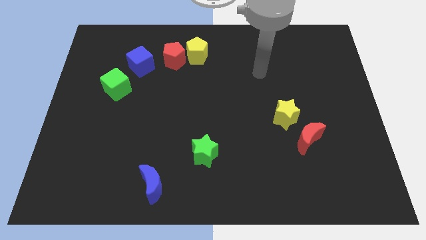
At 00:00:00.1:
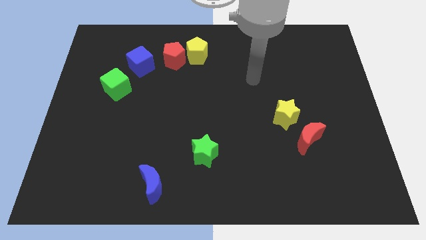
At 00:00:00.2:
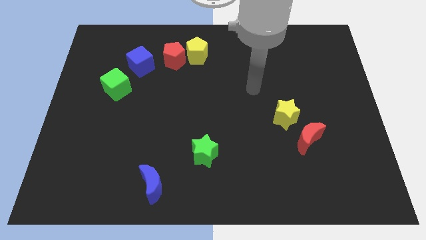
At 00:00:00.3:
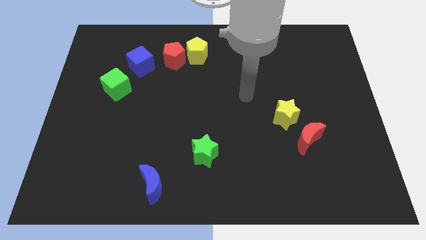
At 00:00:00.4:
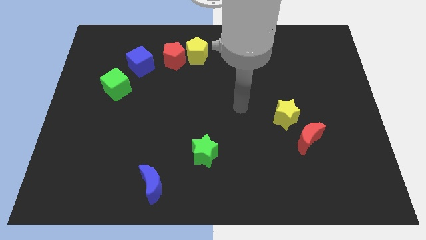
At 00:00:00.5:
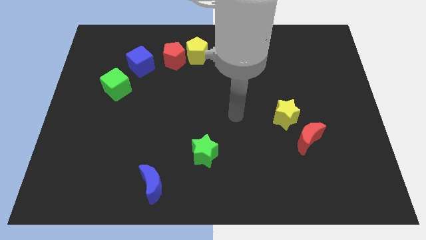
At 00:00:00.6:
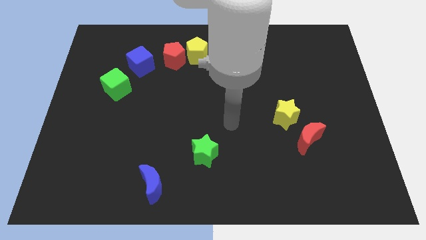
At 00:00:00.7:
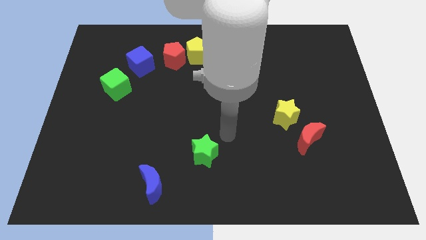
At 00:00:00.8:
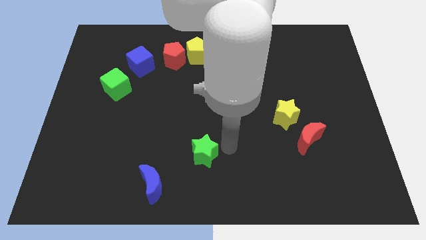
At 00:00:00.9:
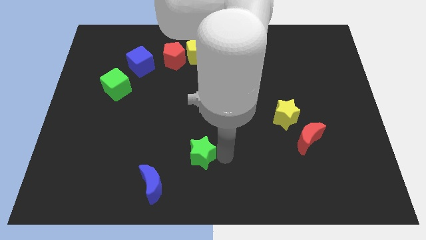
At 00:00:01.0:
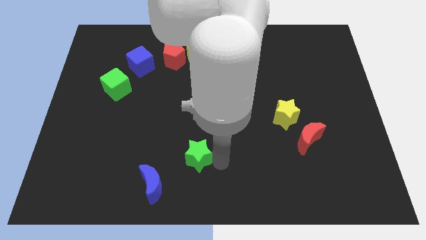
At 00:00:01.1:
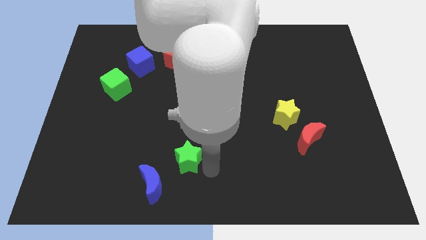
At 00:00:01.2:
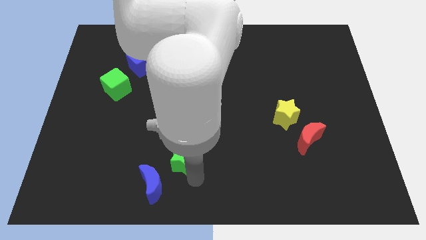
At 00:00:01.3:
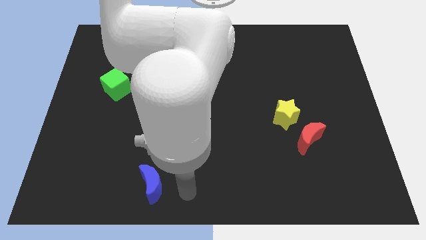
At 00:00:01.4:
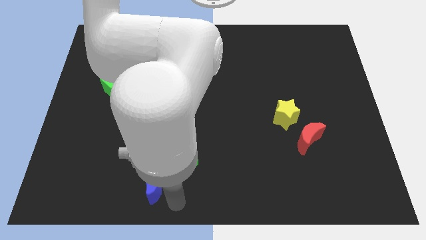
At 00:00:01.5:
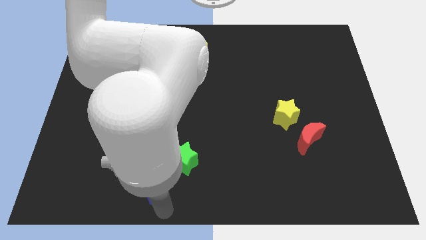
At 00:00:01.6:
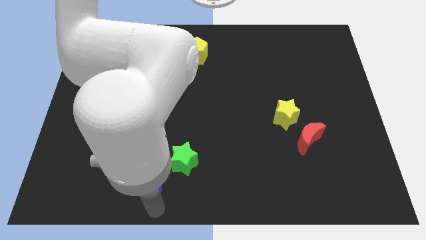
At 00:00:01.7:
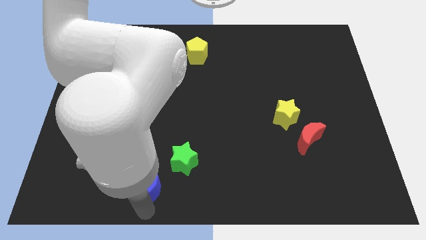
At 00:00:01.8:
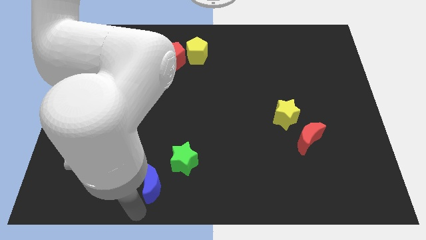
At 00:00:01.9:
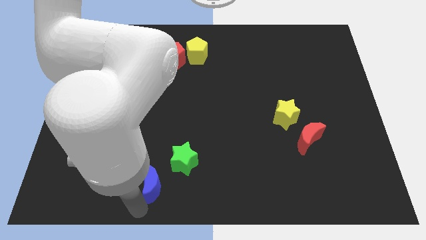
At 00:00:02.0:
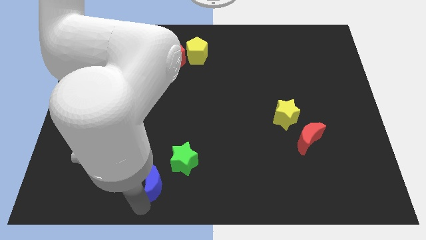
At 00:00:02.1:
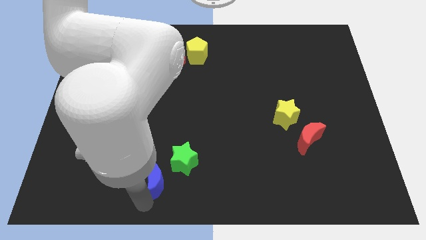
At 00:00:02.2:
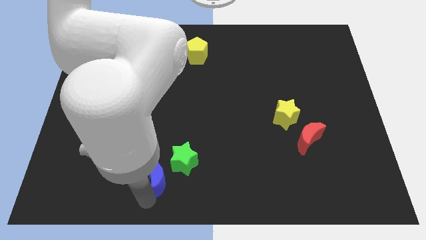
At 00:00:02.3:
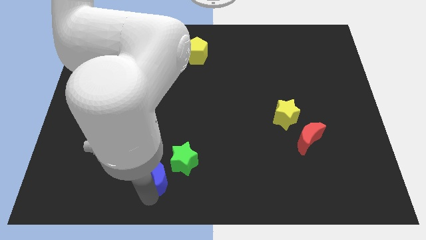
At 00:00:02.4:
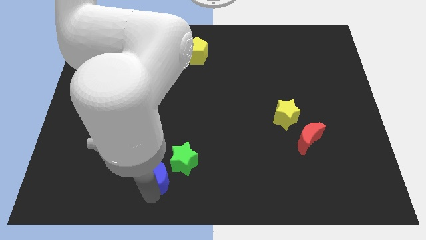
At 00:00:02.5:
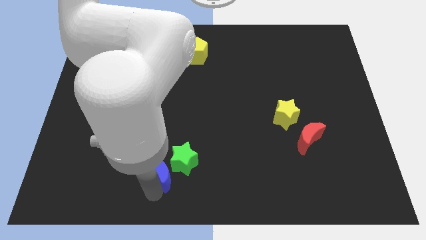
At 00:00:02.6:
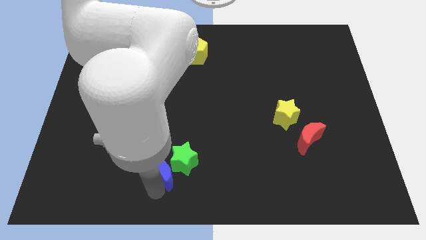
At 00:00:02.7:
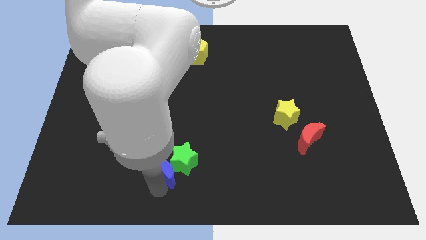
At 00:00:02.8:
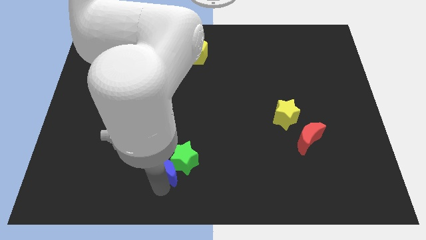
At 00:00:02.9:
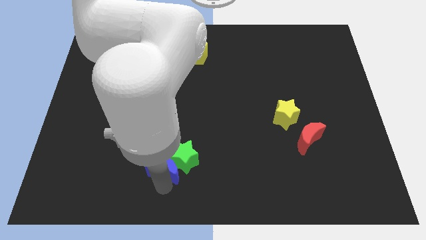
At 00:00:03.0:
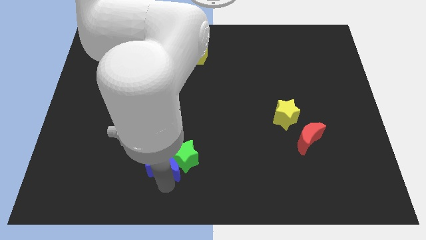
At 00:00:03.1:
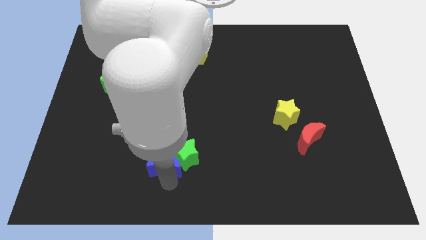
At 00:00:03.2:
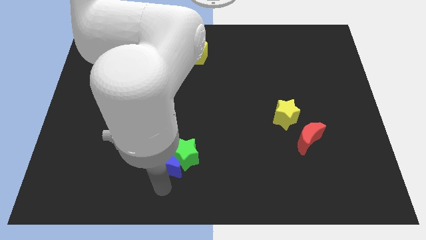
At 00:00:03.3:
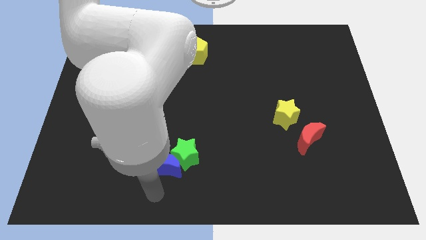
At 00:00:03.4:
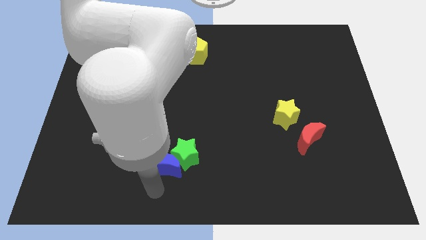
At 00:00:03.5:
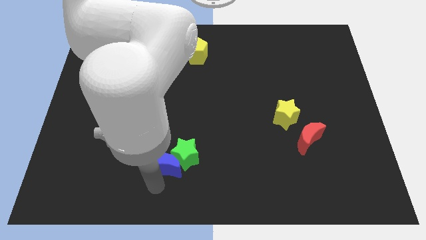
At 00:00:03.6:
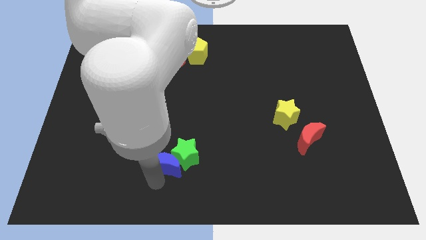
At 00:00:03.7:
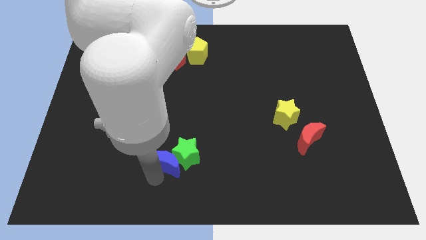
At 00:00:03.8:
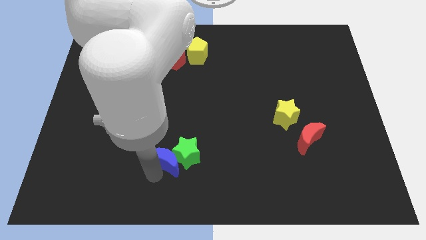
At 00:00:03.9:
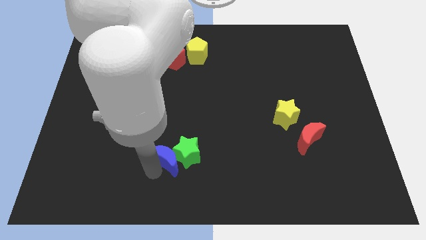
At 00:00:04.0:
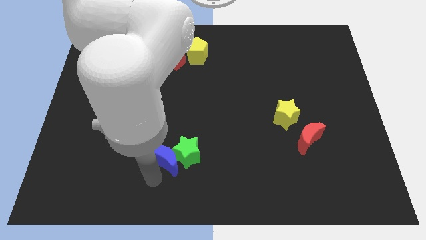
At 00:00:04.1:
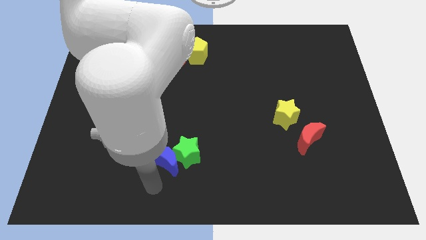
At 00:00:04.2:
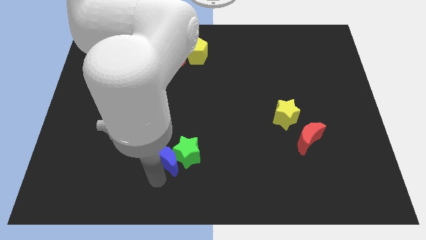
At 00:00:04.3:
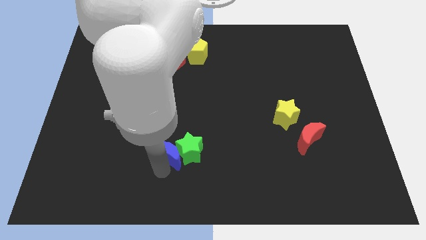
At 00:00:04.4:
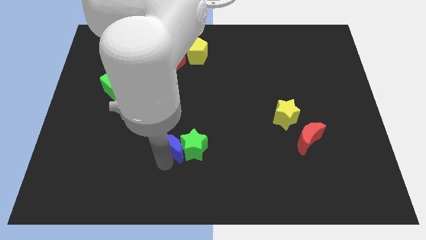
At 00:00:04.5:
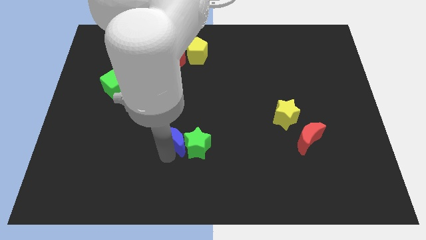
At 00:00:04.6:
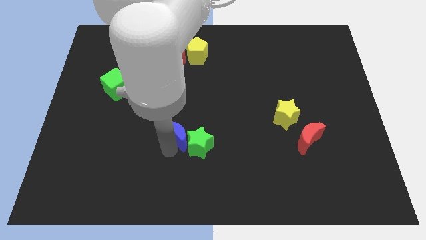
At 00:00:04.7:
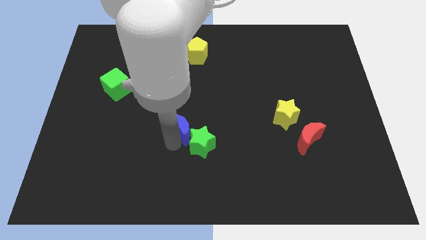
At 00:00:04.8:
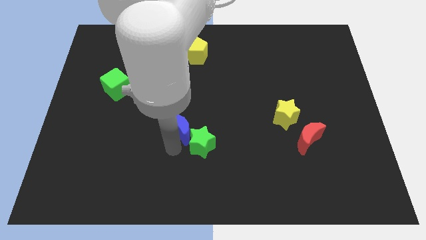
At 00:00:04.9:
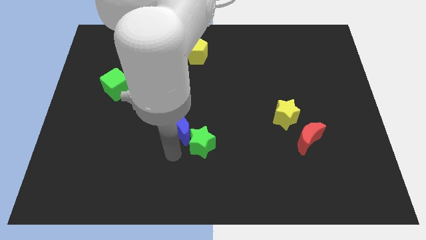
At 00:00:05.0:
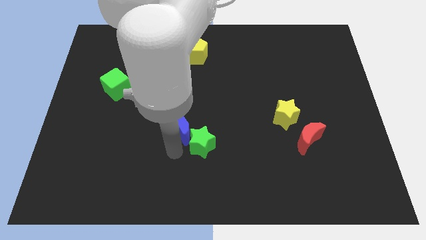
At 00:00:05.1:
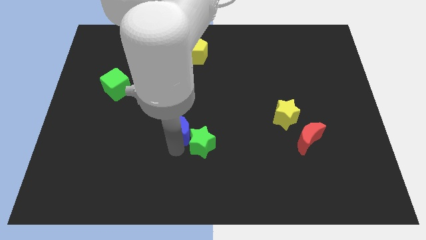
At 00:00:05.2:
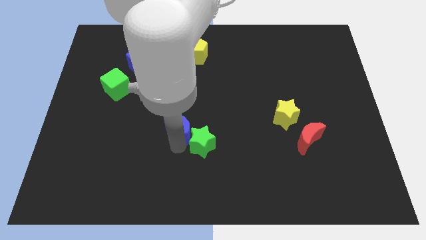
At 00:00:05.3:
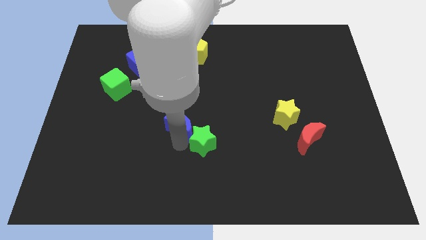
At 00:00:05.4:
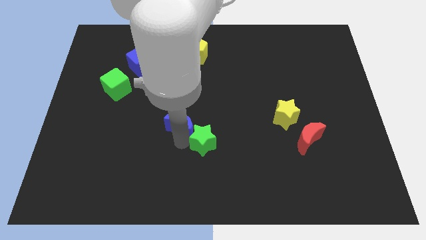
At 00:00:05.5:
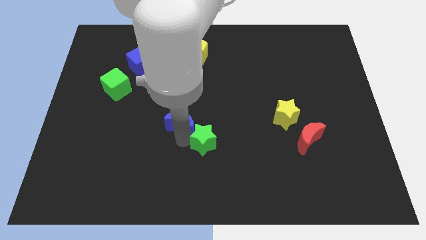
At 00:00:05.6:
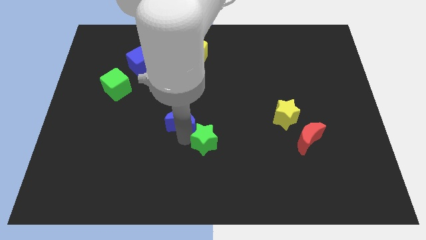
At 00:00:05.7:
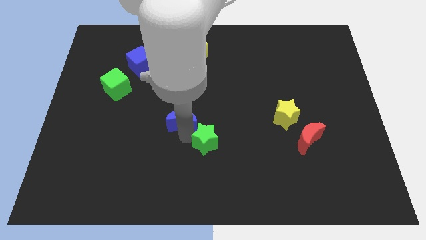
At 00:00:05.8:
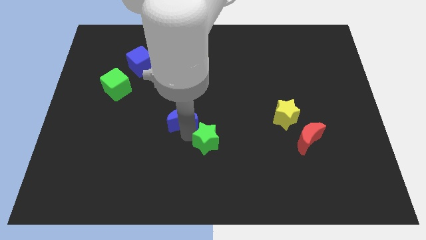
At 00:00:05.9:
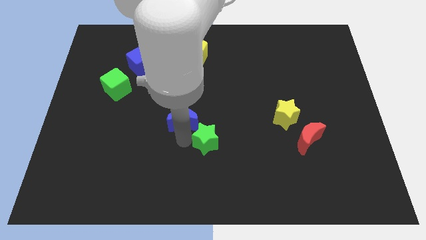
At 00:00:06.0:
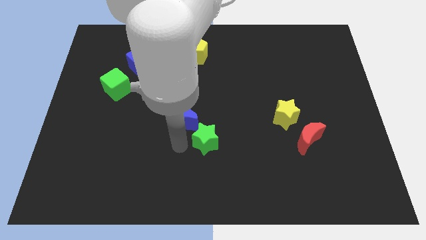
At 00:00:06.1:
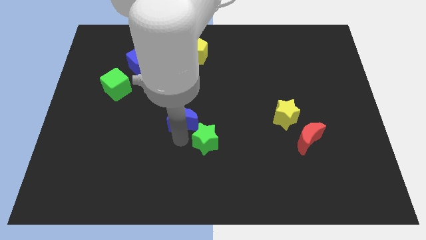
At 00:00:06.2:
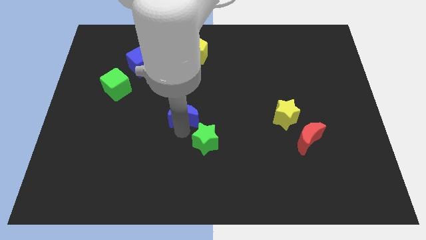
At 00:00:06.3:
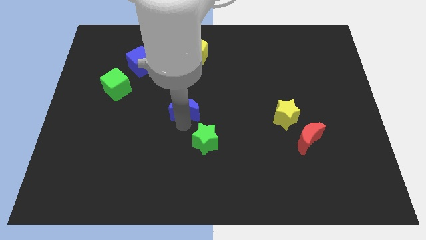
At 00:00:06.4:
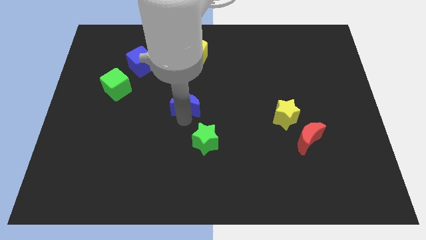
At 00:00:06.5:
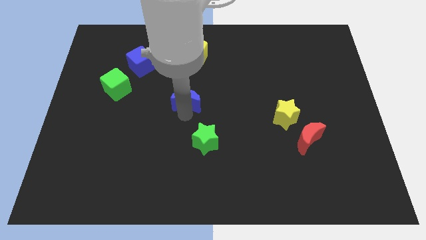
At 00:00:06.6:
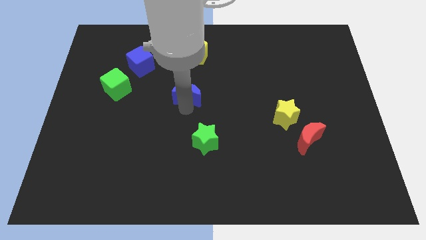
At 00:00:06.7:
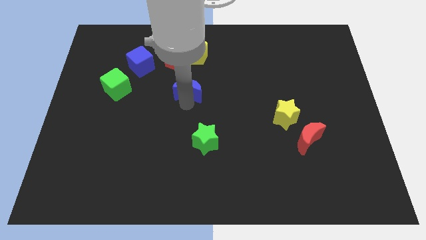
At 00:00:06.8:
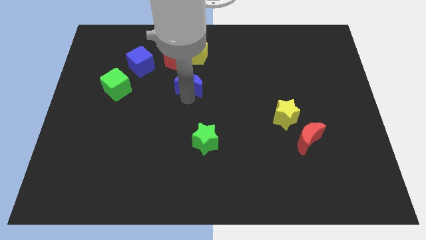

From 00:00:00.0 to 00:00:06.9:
push the blue moon diagonally down and to the right of the red pentagon
